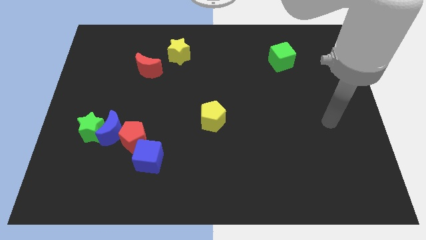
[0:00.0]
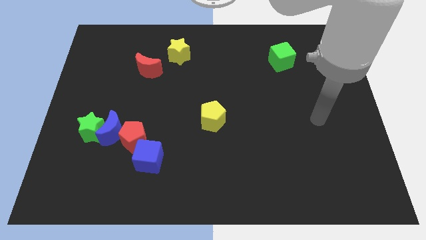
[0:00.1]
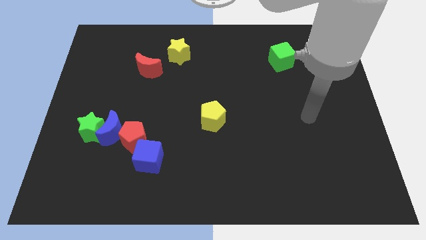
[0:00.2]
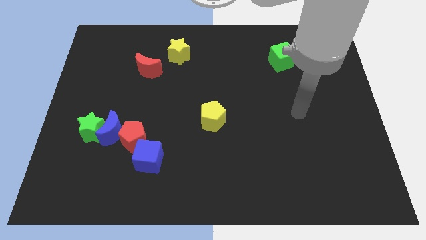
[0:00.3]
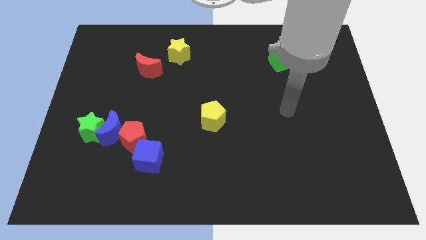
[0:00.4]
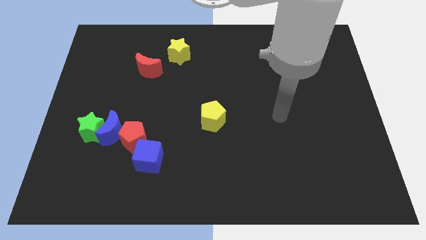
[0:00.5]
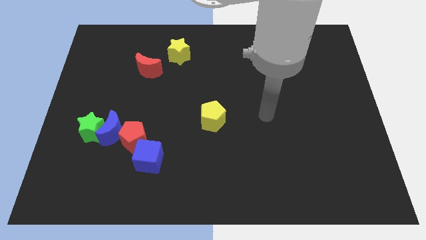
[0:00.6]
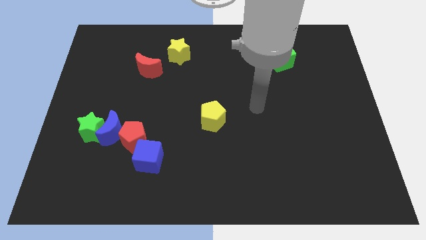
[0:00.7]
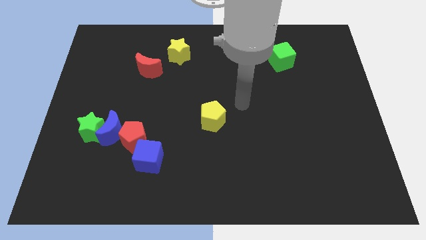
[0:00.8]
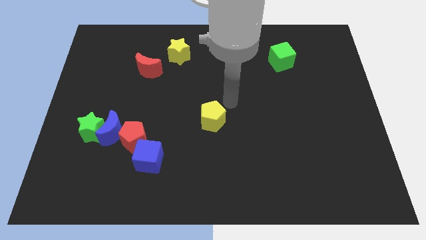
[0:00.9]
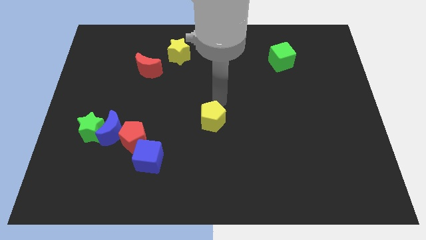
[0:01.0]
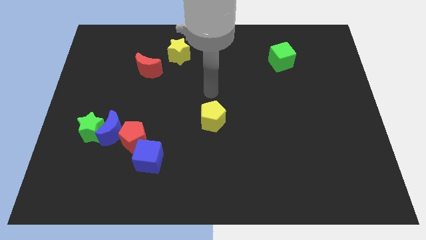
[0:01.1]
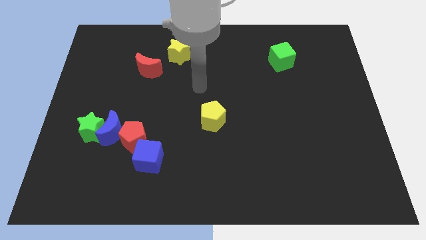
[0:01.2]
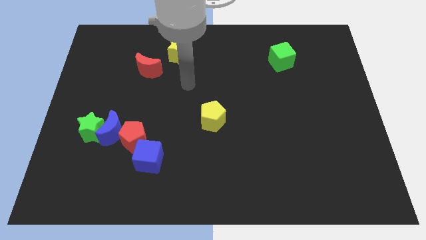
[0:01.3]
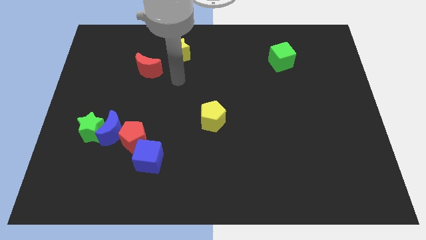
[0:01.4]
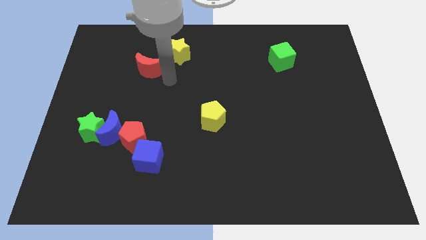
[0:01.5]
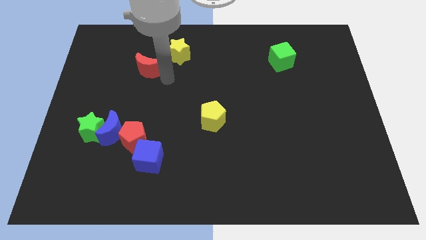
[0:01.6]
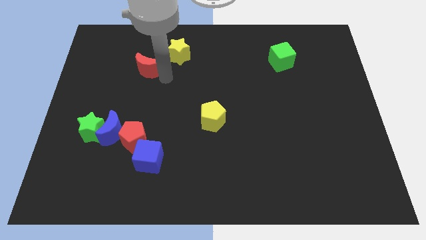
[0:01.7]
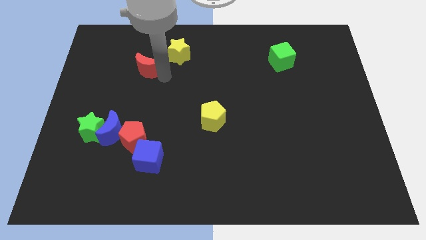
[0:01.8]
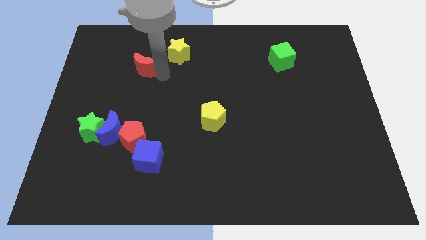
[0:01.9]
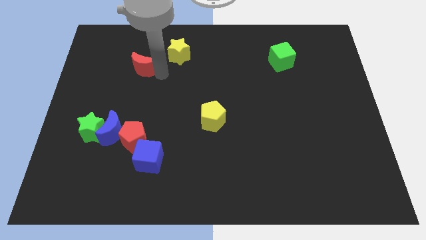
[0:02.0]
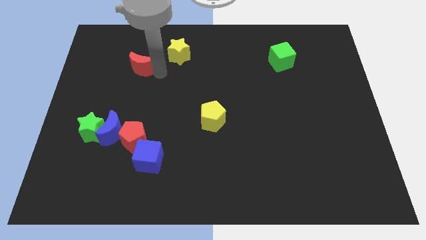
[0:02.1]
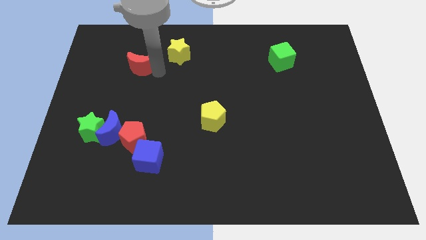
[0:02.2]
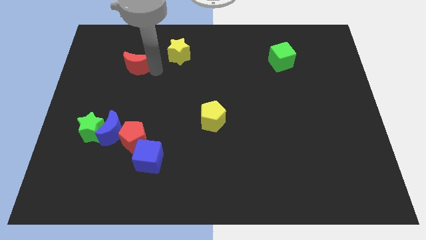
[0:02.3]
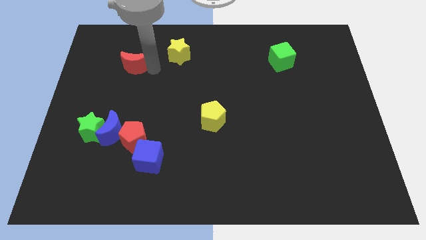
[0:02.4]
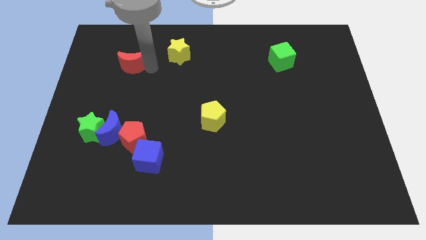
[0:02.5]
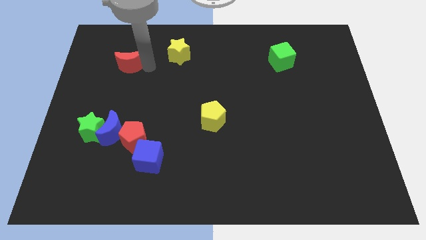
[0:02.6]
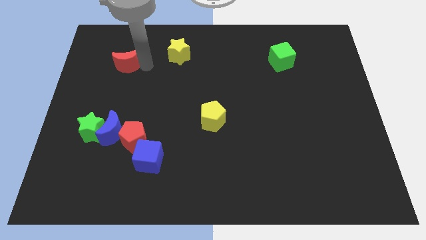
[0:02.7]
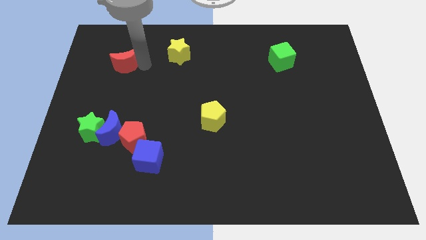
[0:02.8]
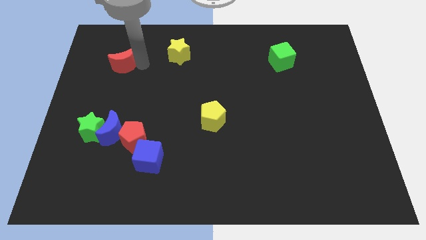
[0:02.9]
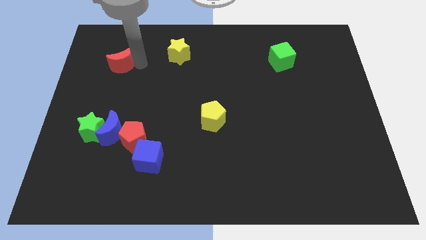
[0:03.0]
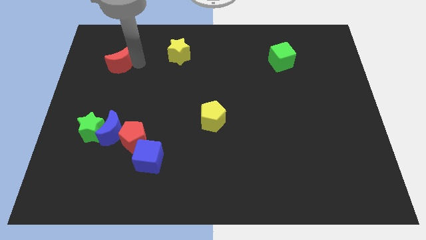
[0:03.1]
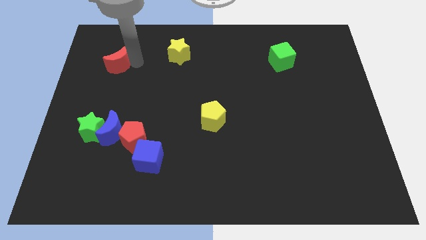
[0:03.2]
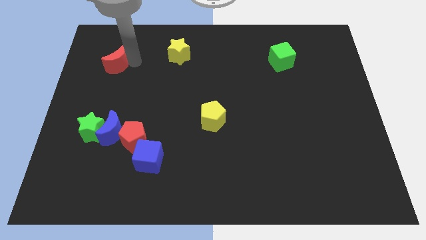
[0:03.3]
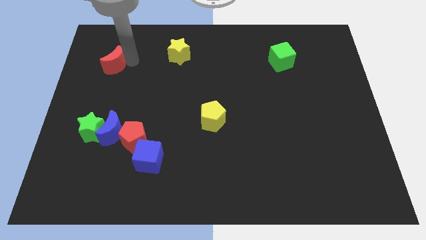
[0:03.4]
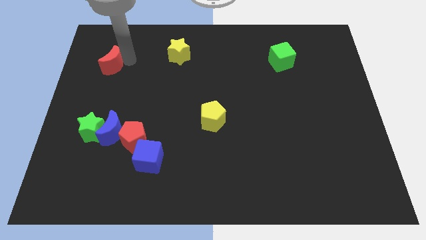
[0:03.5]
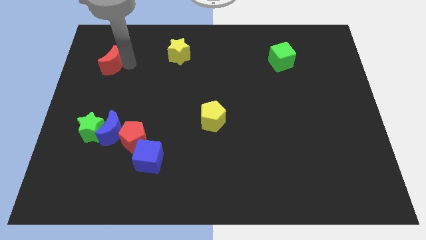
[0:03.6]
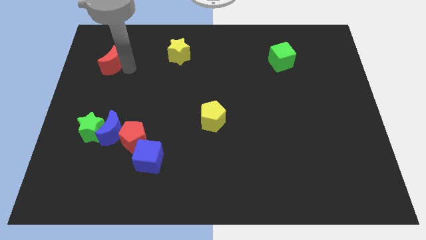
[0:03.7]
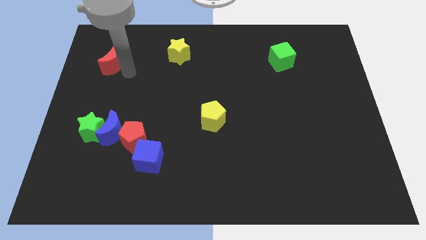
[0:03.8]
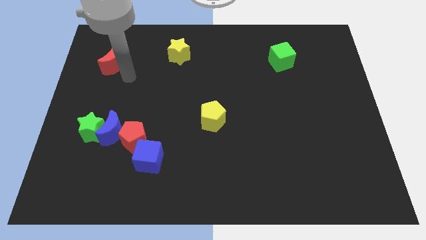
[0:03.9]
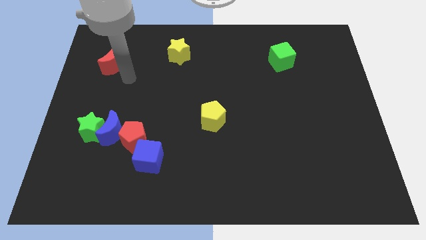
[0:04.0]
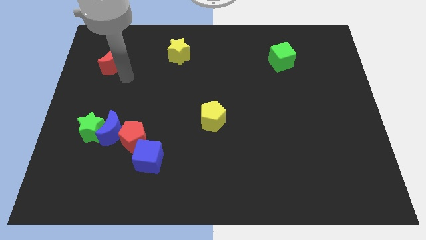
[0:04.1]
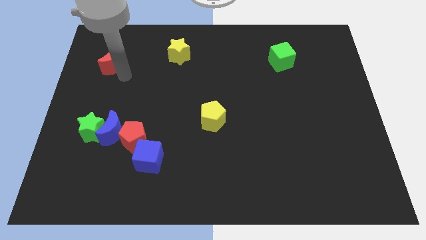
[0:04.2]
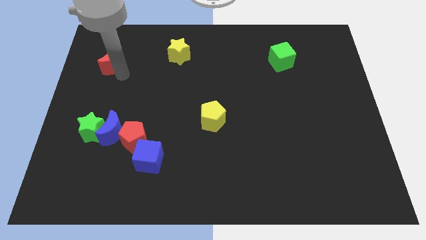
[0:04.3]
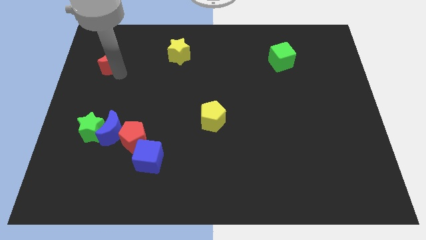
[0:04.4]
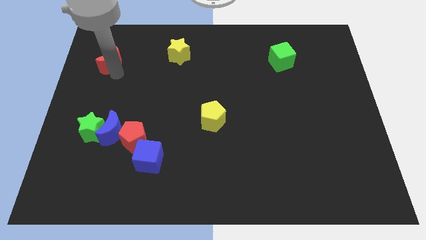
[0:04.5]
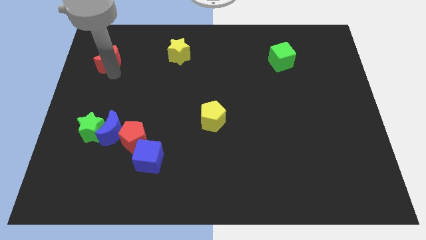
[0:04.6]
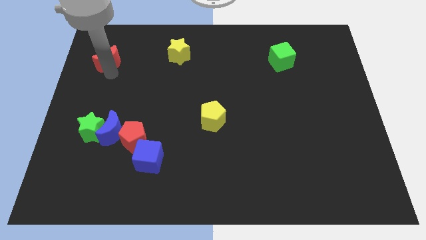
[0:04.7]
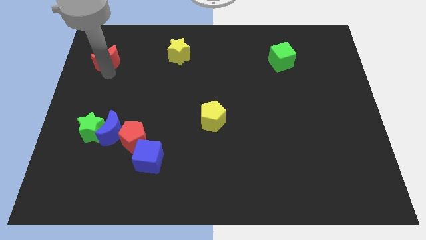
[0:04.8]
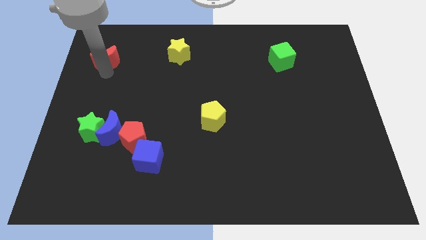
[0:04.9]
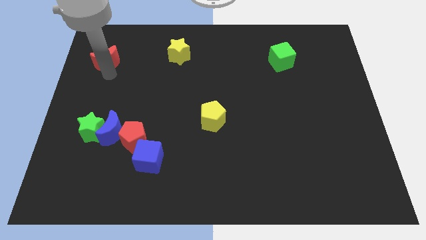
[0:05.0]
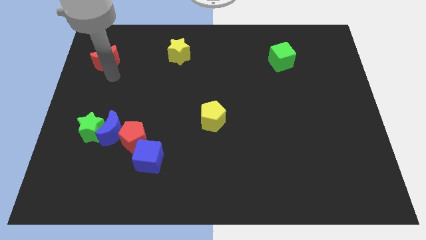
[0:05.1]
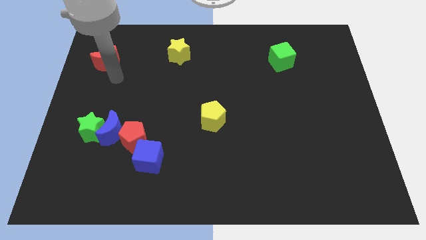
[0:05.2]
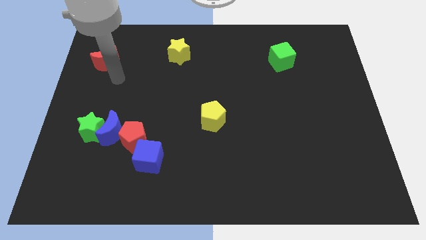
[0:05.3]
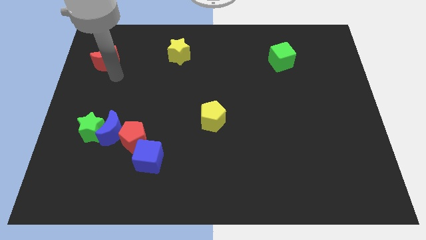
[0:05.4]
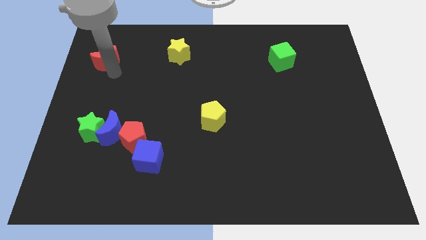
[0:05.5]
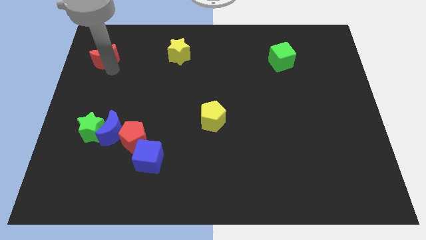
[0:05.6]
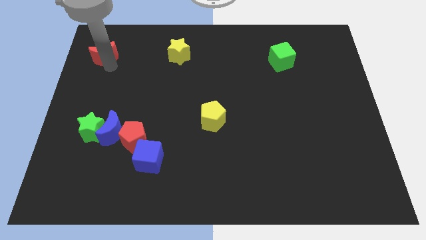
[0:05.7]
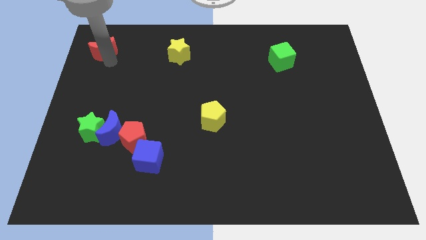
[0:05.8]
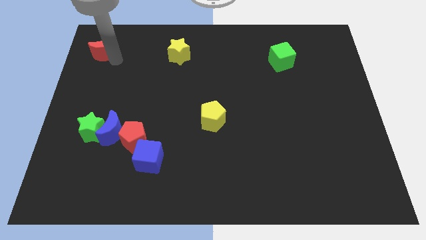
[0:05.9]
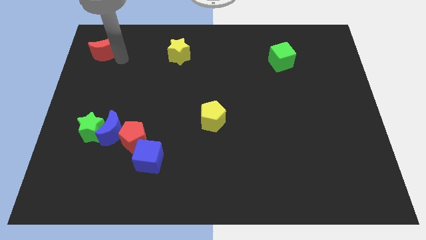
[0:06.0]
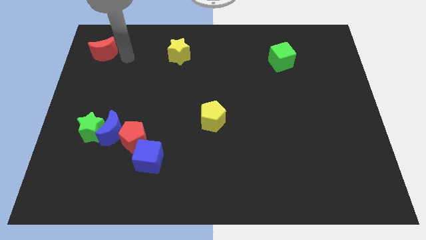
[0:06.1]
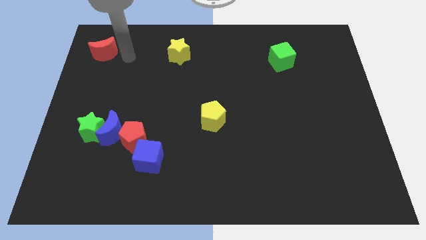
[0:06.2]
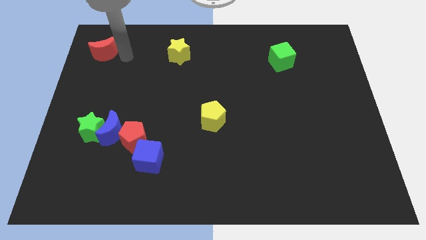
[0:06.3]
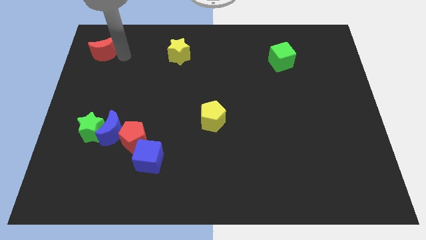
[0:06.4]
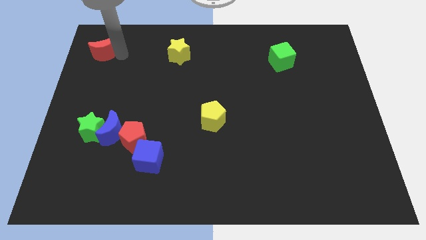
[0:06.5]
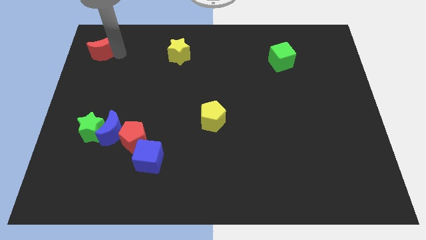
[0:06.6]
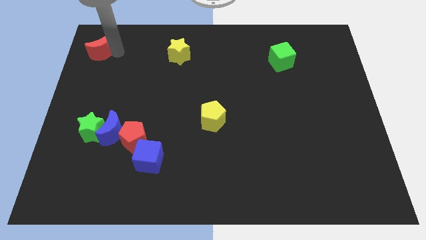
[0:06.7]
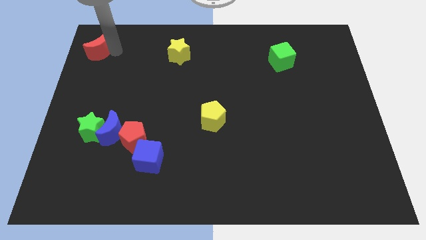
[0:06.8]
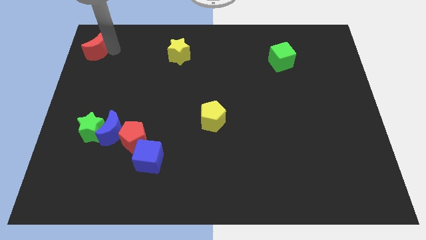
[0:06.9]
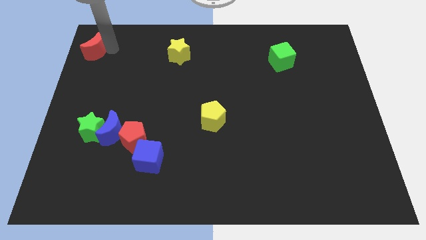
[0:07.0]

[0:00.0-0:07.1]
slide the red moon to the upper left corner
